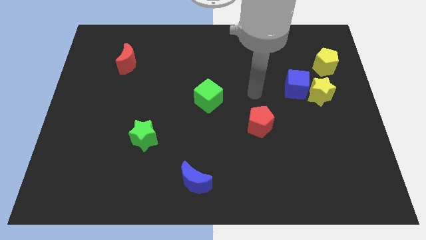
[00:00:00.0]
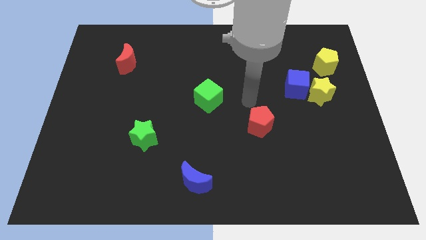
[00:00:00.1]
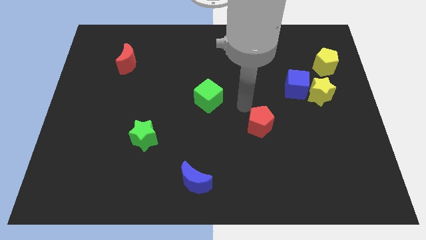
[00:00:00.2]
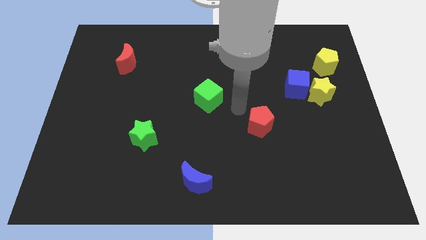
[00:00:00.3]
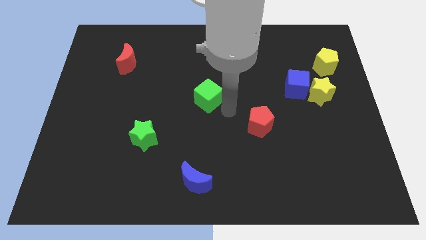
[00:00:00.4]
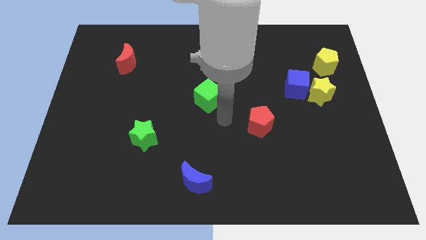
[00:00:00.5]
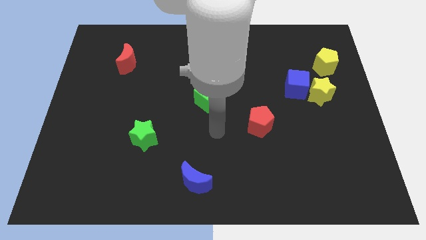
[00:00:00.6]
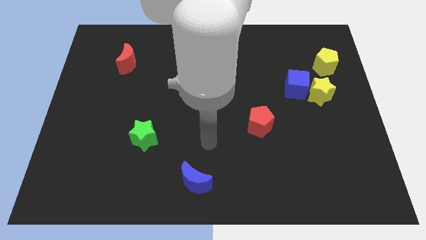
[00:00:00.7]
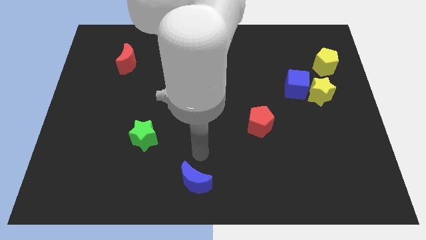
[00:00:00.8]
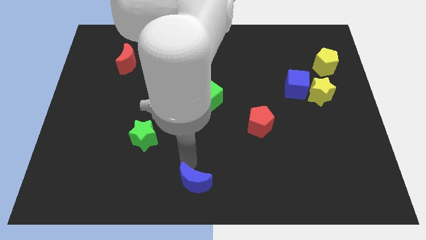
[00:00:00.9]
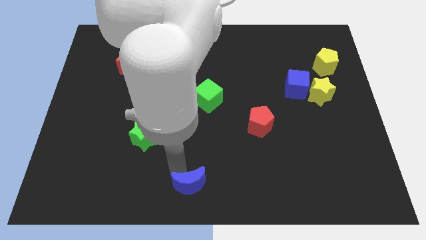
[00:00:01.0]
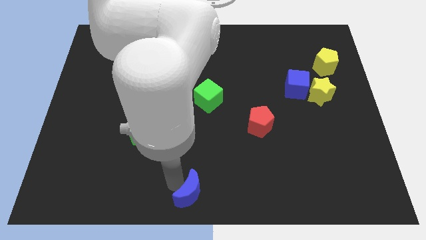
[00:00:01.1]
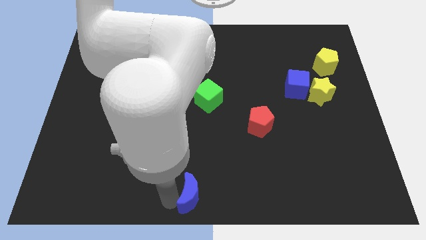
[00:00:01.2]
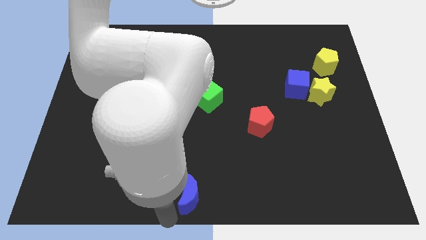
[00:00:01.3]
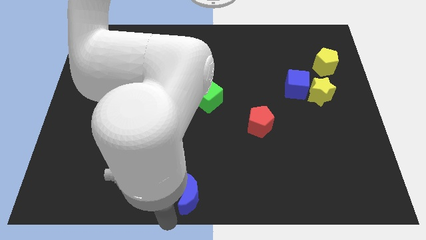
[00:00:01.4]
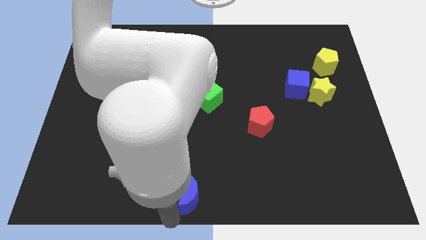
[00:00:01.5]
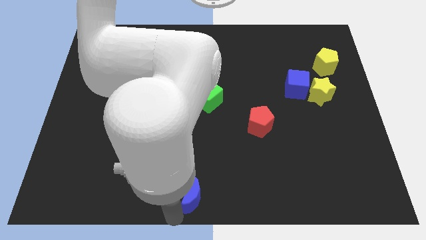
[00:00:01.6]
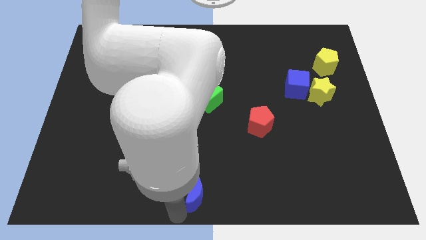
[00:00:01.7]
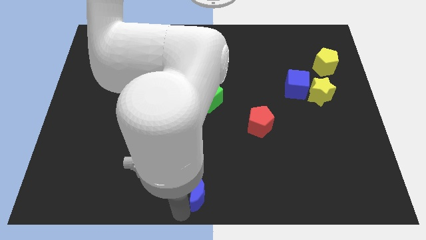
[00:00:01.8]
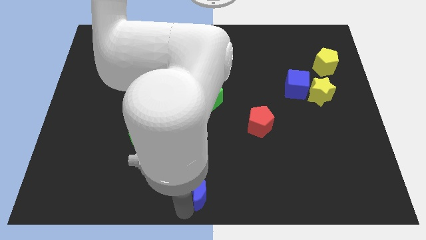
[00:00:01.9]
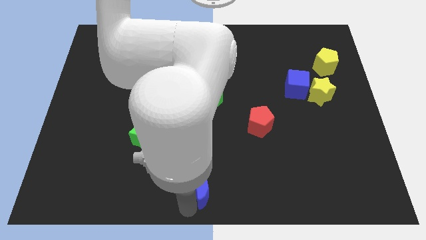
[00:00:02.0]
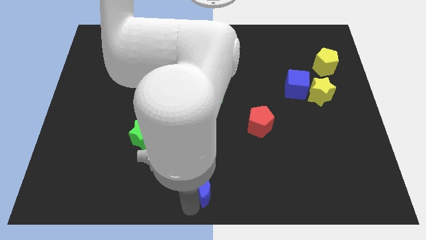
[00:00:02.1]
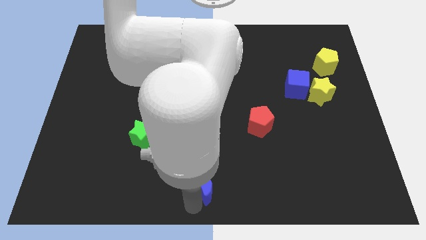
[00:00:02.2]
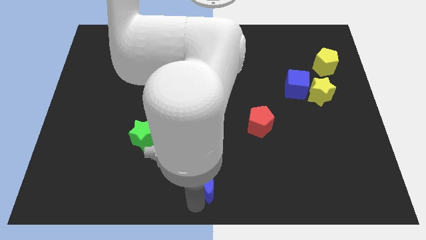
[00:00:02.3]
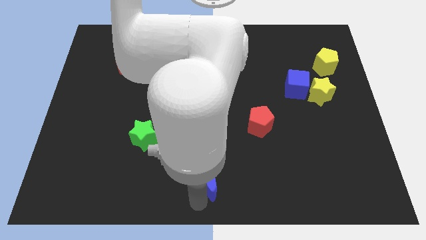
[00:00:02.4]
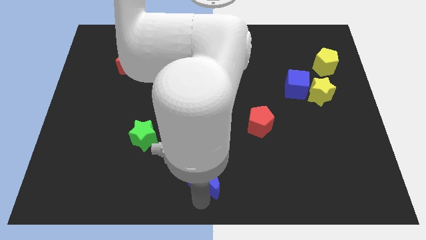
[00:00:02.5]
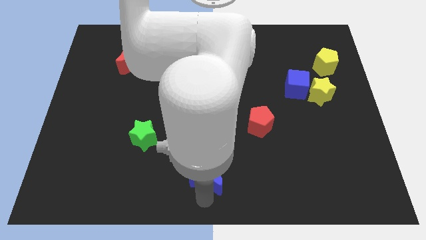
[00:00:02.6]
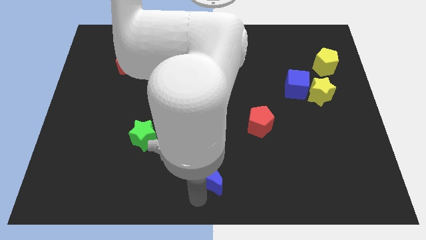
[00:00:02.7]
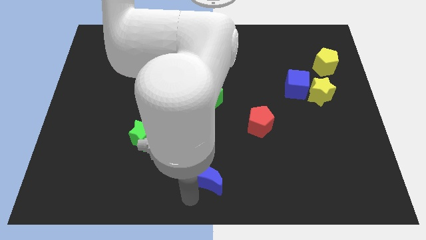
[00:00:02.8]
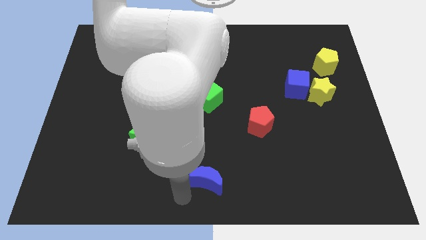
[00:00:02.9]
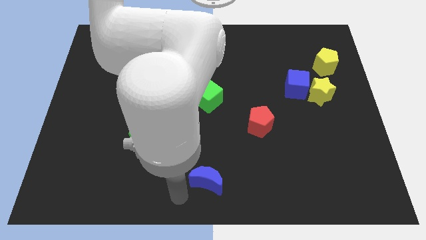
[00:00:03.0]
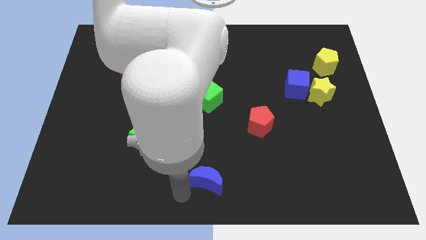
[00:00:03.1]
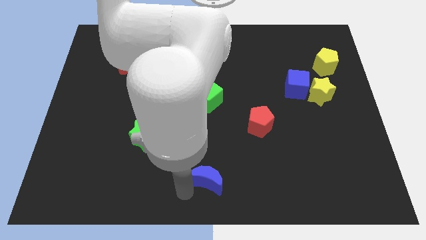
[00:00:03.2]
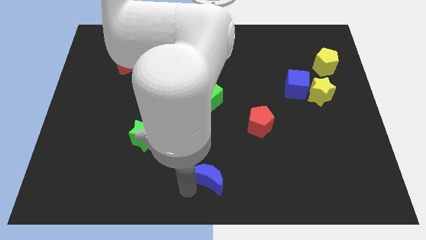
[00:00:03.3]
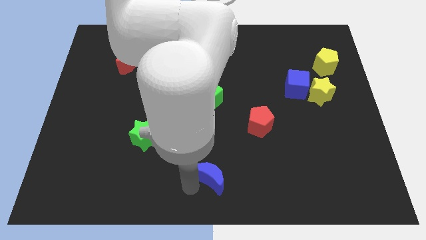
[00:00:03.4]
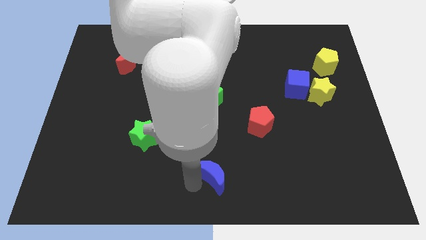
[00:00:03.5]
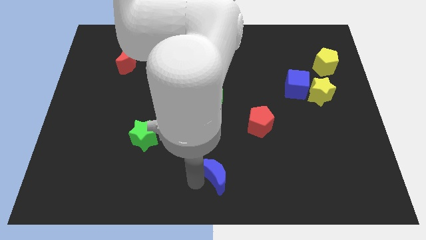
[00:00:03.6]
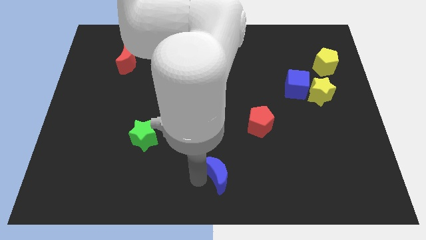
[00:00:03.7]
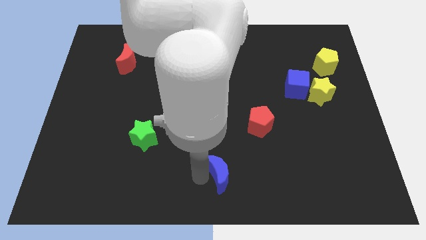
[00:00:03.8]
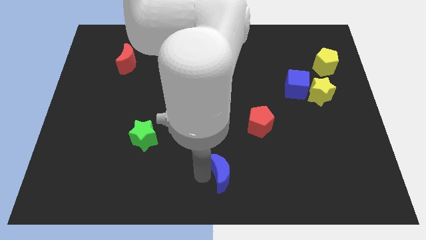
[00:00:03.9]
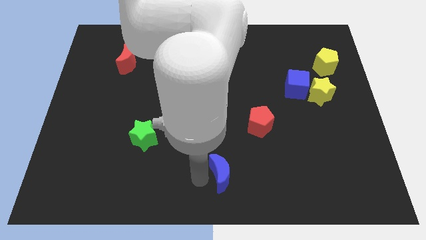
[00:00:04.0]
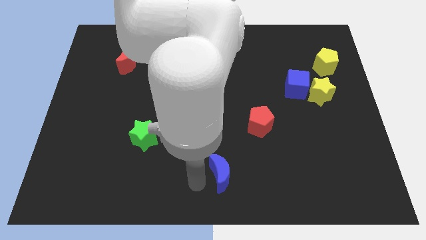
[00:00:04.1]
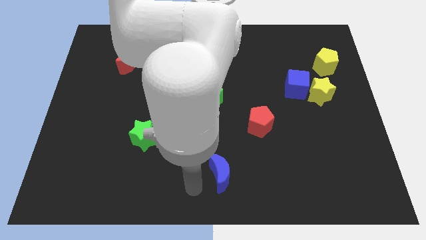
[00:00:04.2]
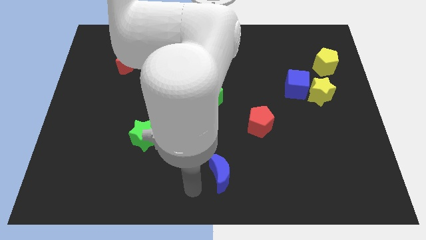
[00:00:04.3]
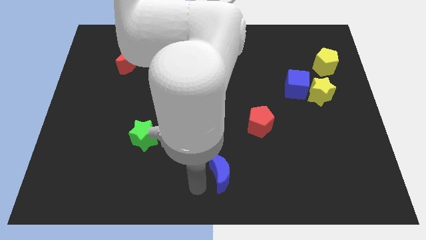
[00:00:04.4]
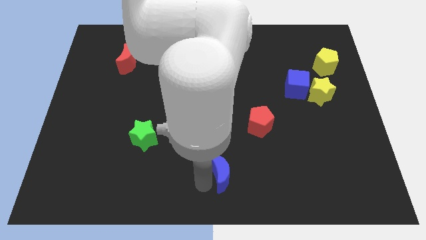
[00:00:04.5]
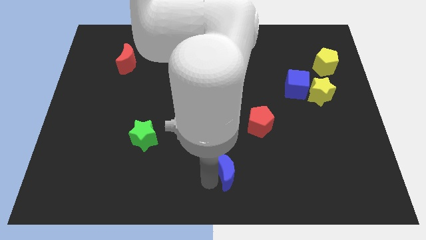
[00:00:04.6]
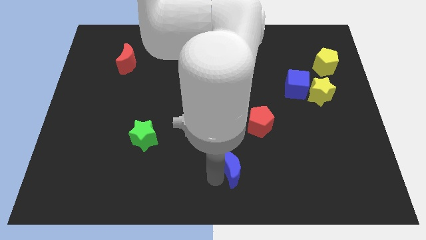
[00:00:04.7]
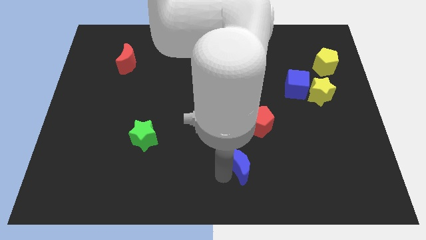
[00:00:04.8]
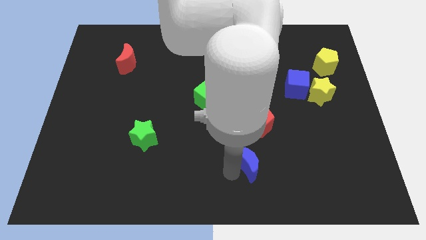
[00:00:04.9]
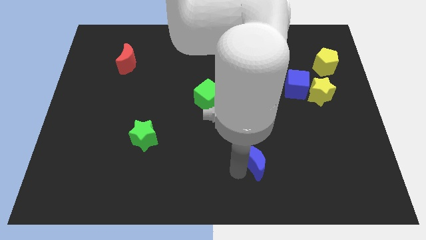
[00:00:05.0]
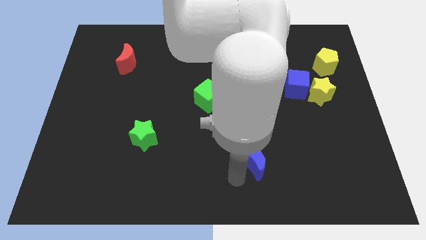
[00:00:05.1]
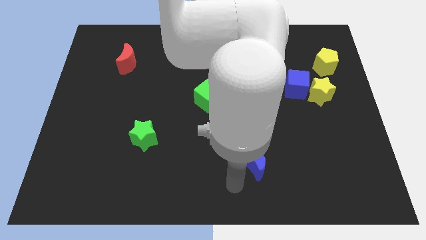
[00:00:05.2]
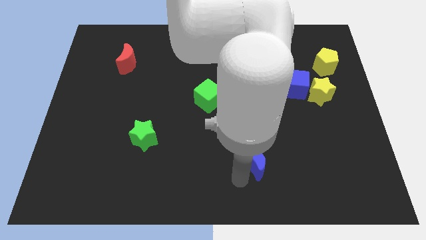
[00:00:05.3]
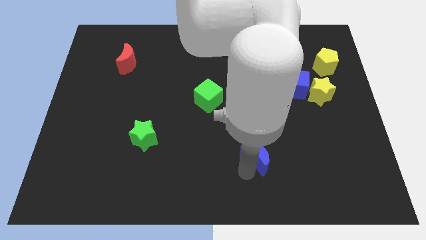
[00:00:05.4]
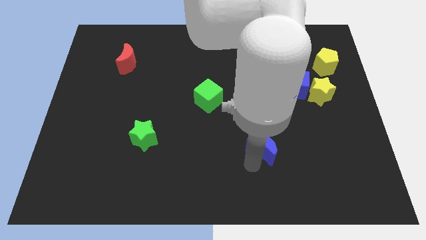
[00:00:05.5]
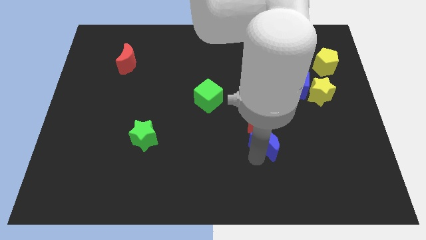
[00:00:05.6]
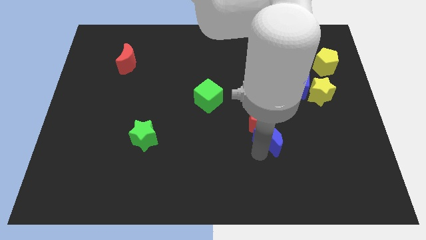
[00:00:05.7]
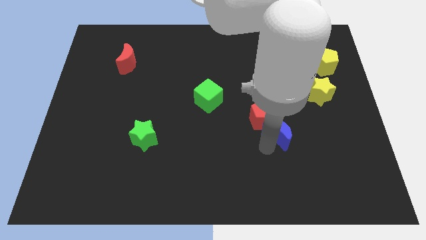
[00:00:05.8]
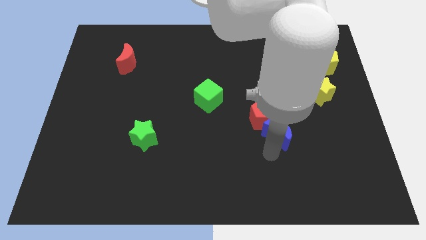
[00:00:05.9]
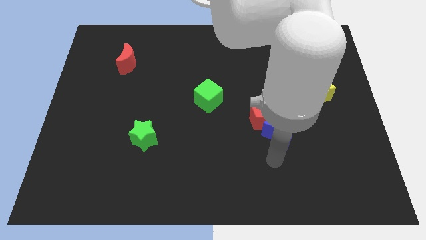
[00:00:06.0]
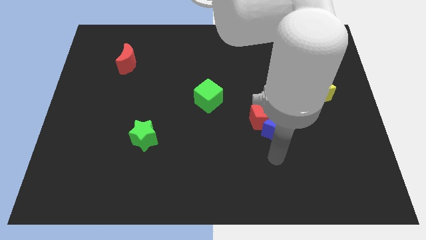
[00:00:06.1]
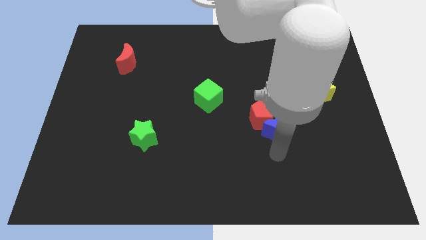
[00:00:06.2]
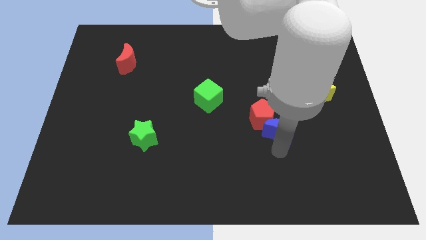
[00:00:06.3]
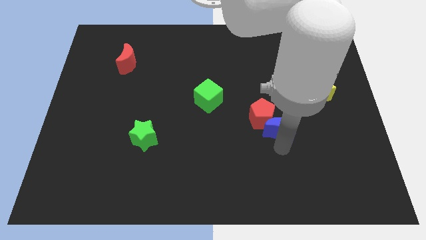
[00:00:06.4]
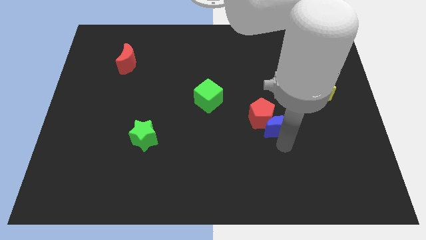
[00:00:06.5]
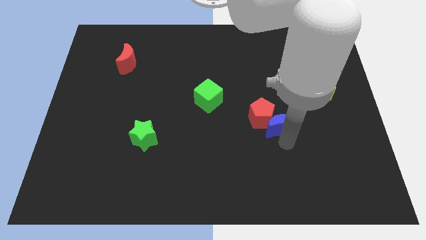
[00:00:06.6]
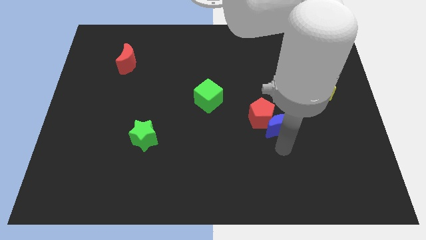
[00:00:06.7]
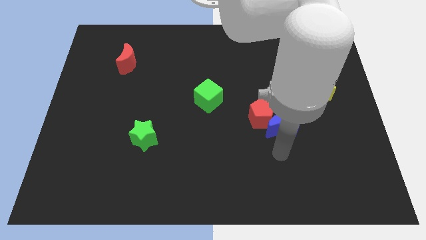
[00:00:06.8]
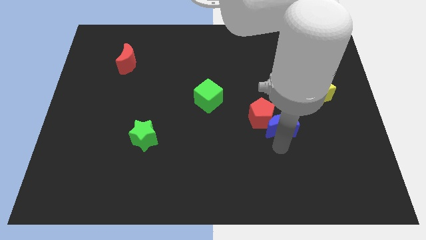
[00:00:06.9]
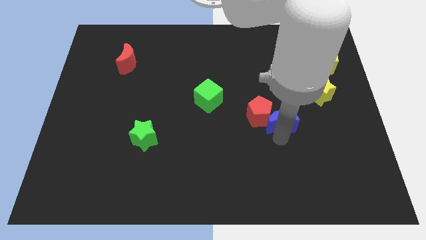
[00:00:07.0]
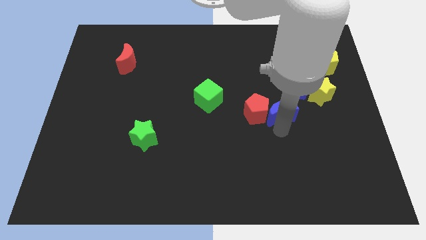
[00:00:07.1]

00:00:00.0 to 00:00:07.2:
push the blue moon diagonally up and to the right of the red pentagon
